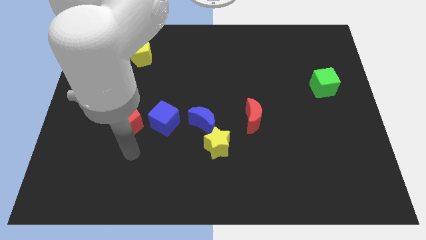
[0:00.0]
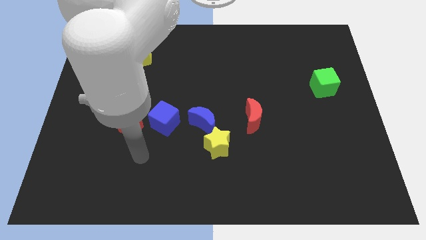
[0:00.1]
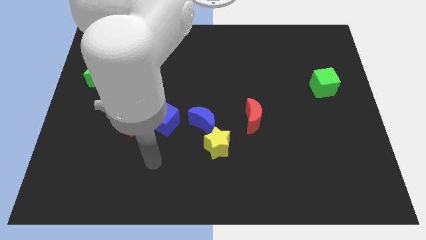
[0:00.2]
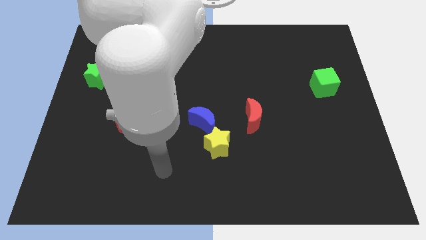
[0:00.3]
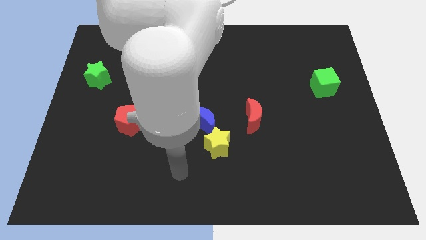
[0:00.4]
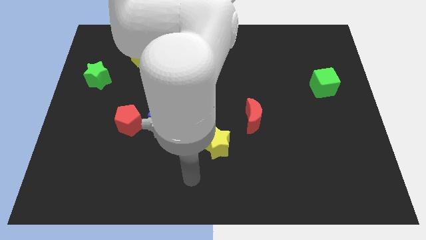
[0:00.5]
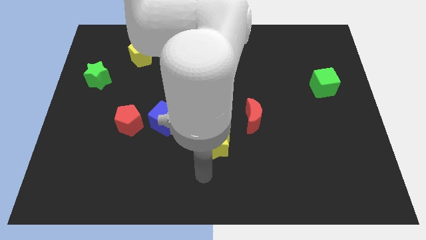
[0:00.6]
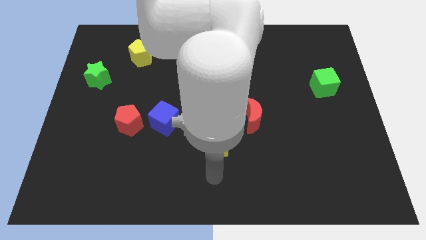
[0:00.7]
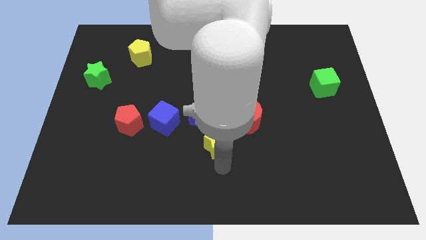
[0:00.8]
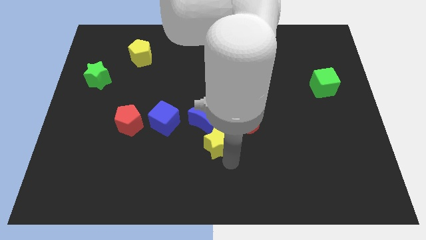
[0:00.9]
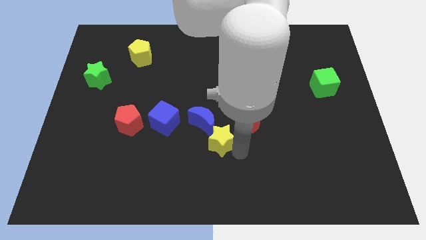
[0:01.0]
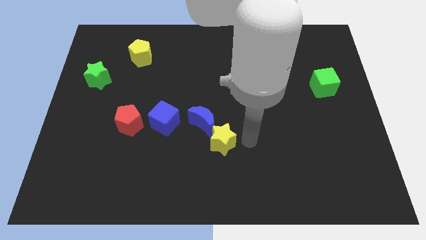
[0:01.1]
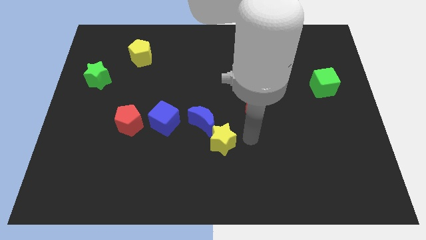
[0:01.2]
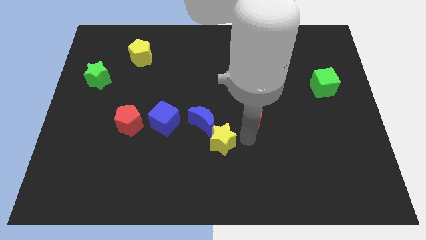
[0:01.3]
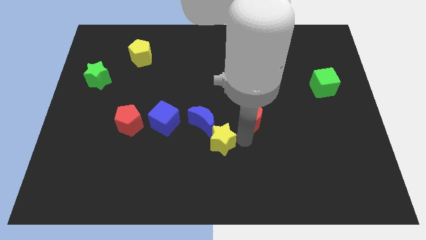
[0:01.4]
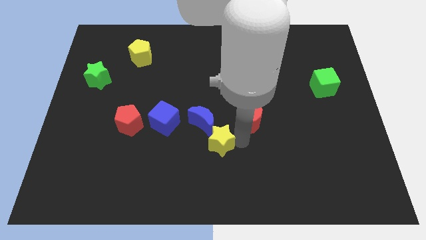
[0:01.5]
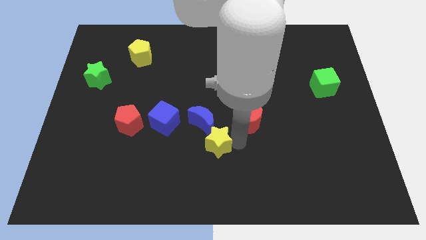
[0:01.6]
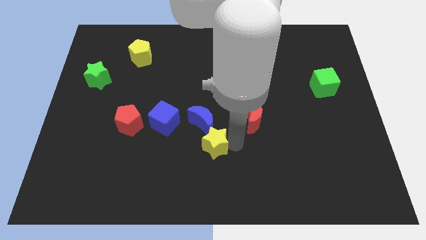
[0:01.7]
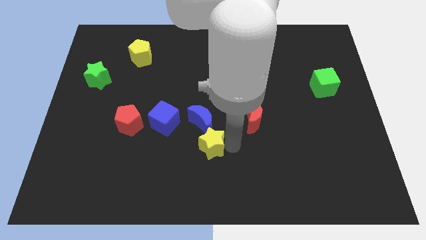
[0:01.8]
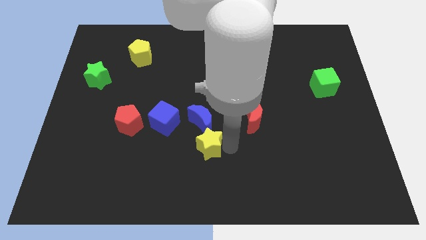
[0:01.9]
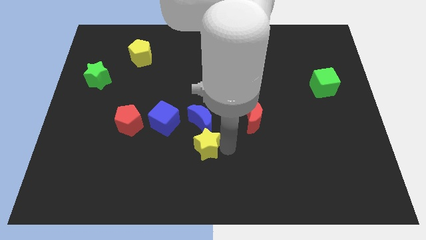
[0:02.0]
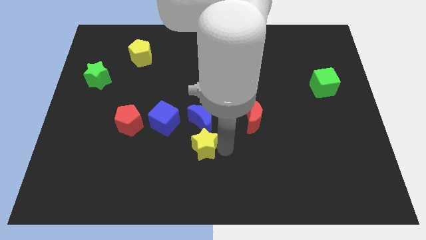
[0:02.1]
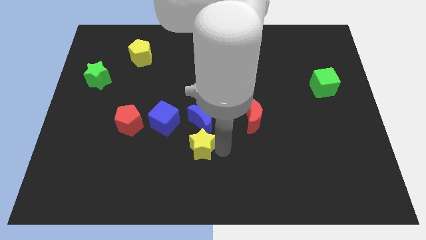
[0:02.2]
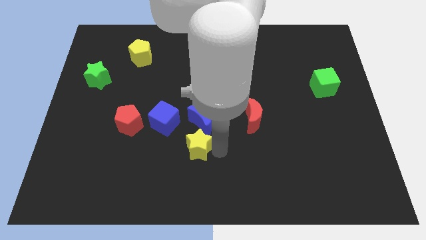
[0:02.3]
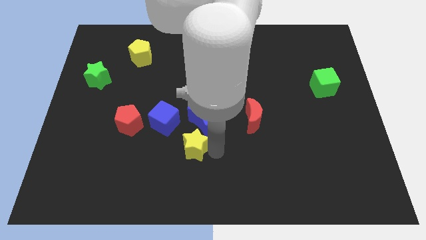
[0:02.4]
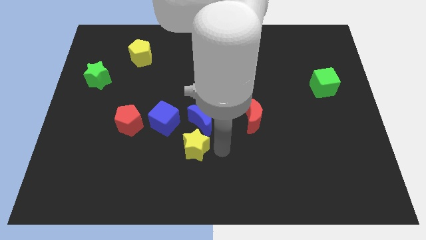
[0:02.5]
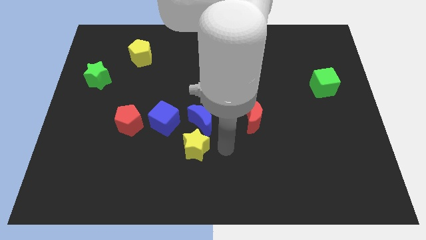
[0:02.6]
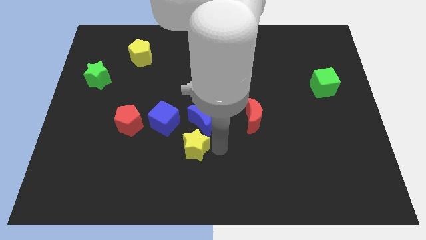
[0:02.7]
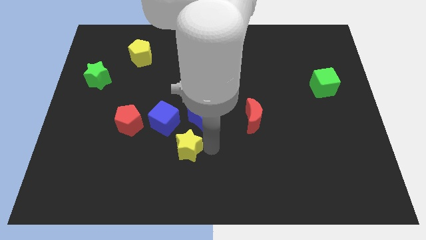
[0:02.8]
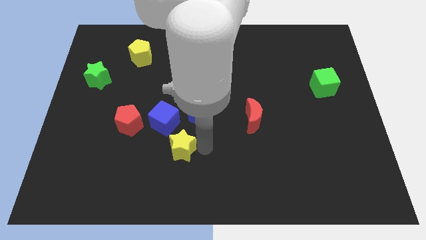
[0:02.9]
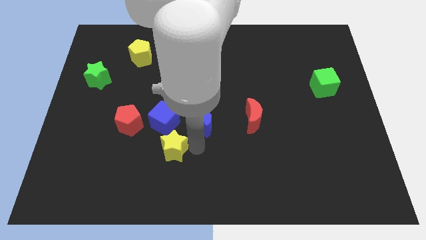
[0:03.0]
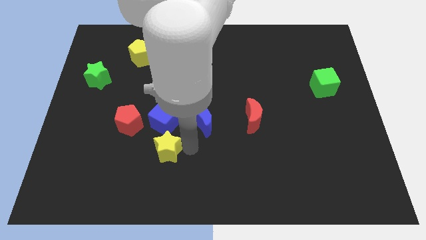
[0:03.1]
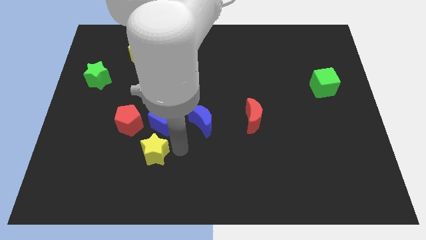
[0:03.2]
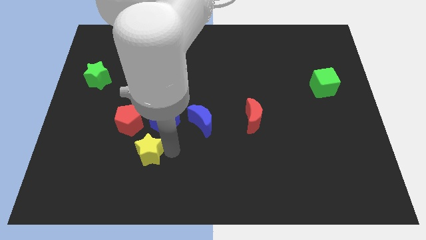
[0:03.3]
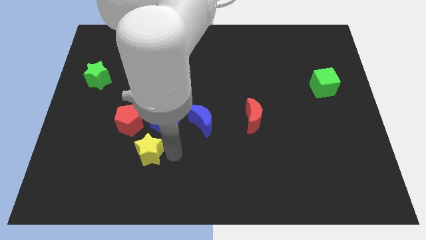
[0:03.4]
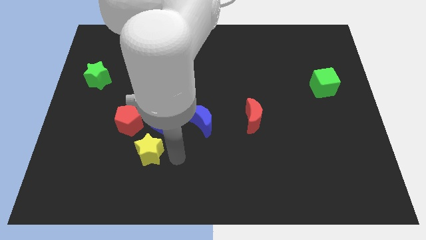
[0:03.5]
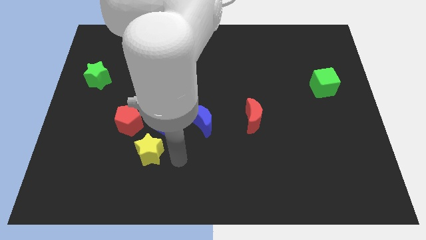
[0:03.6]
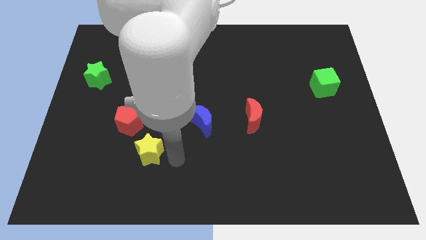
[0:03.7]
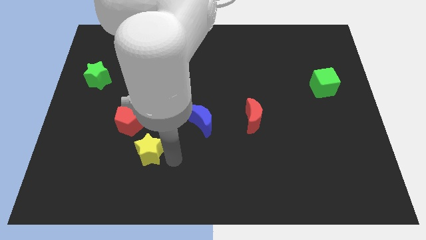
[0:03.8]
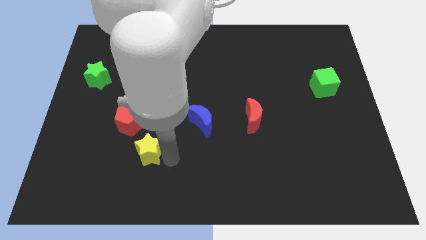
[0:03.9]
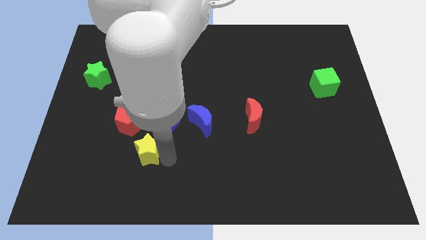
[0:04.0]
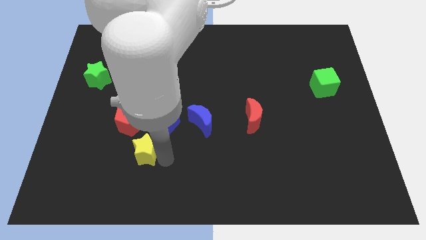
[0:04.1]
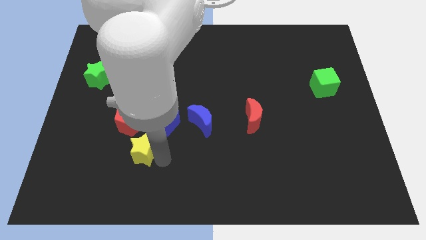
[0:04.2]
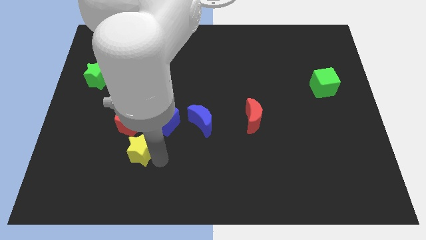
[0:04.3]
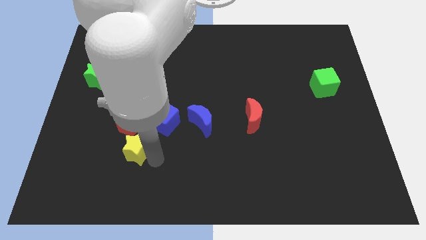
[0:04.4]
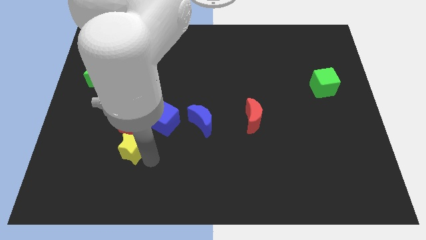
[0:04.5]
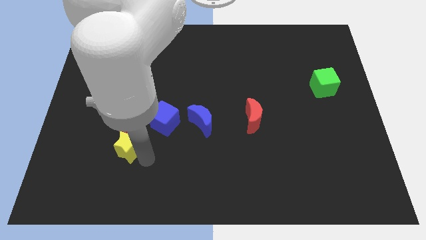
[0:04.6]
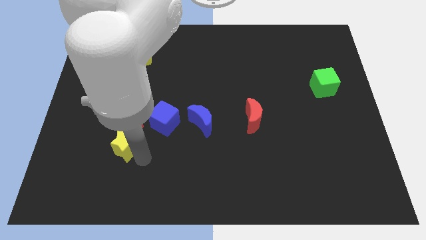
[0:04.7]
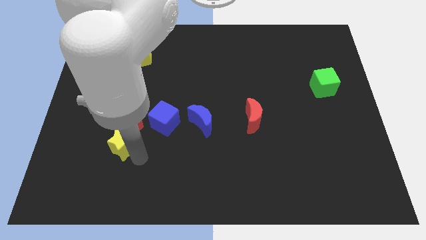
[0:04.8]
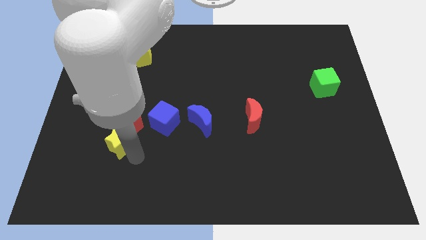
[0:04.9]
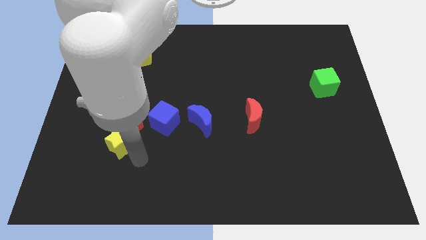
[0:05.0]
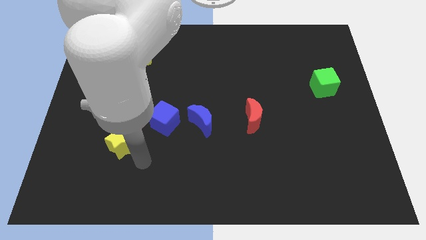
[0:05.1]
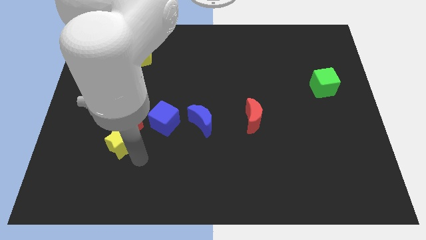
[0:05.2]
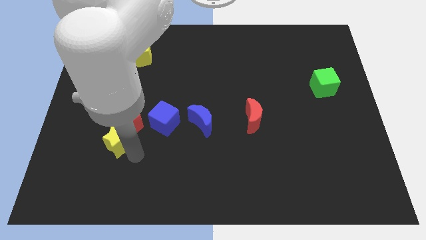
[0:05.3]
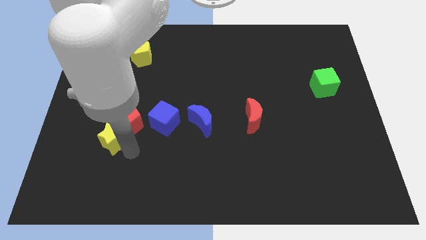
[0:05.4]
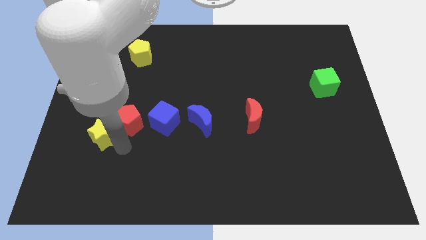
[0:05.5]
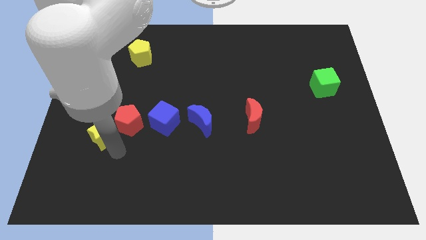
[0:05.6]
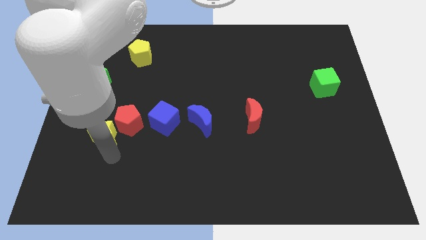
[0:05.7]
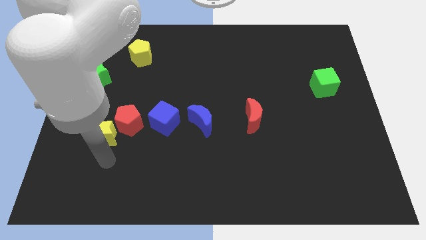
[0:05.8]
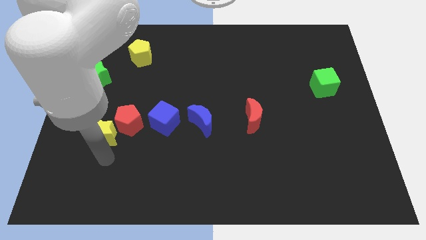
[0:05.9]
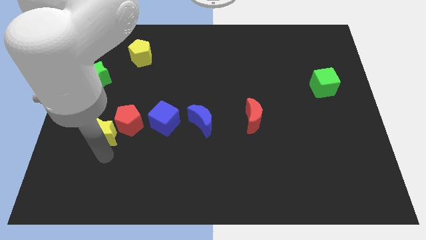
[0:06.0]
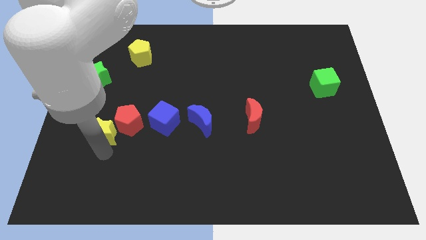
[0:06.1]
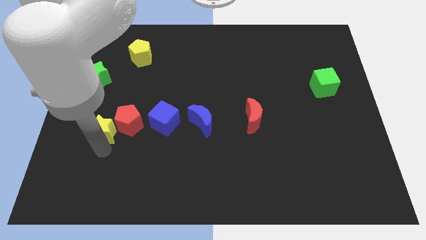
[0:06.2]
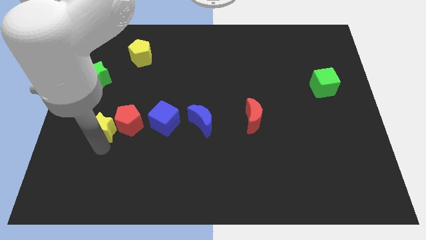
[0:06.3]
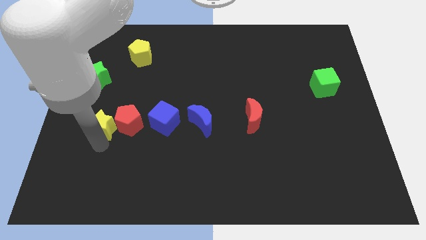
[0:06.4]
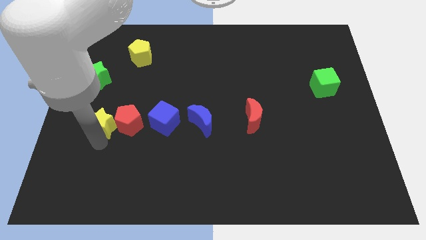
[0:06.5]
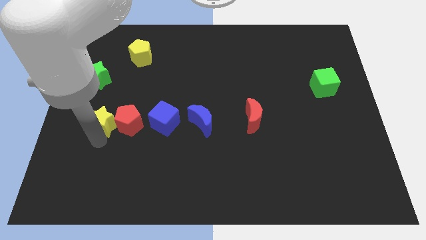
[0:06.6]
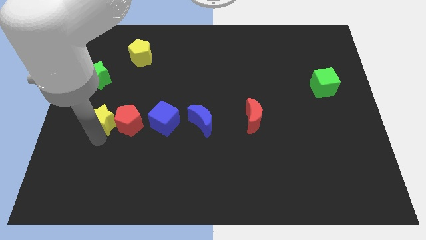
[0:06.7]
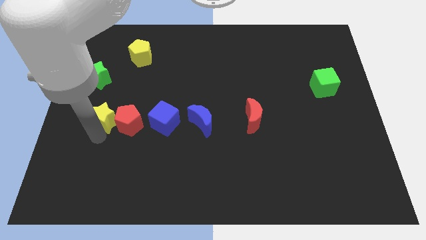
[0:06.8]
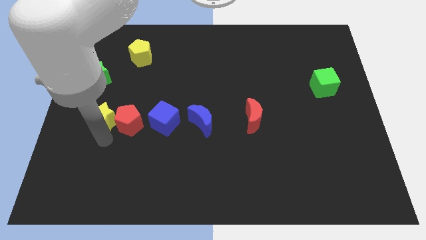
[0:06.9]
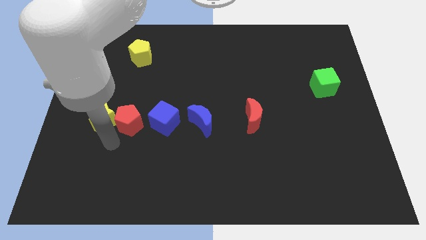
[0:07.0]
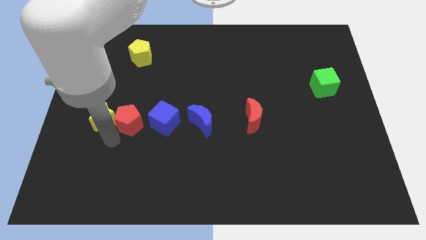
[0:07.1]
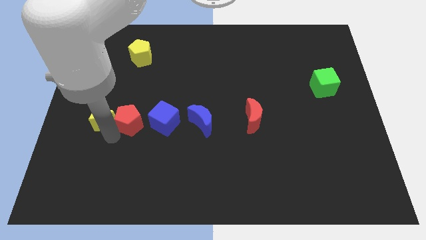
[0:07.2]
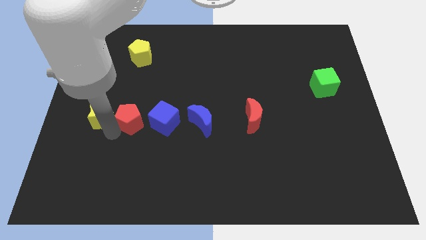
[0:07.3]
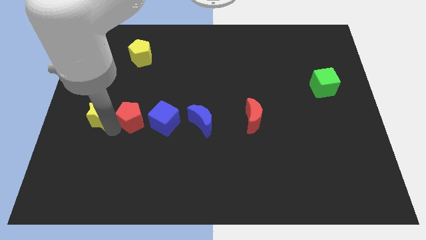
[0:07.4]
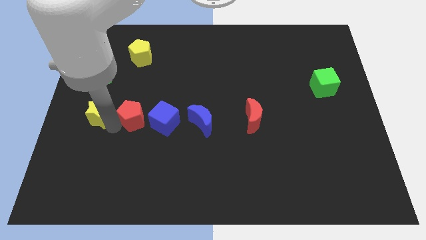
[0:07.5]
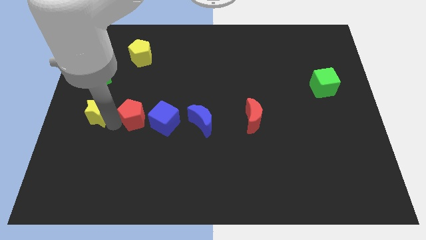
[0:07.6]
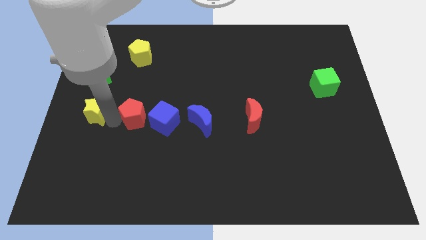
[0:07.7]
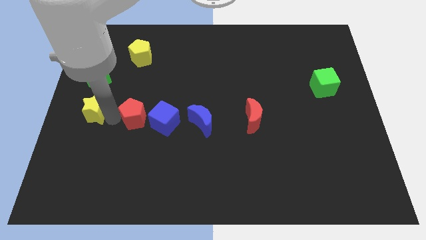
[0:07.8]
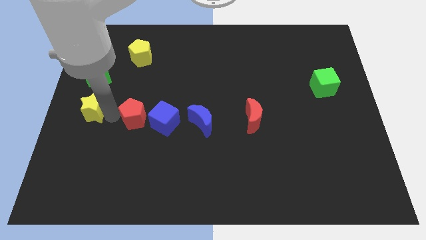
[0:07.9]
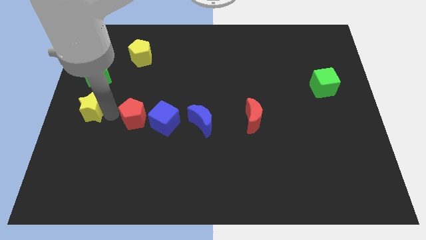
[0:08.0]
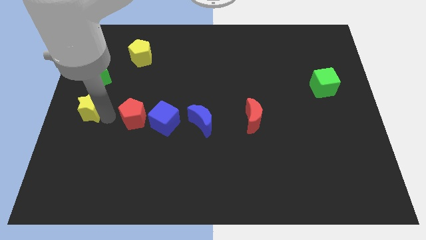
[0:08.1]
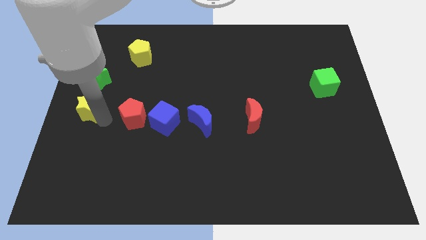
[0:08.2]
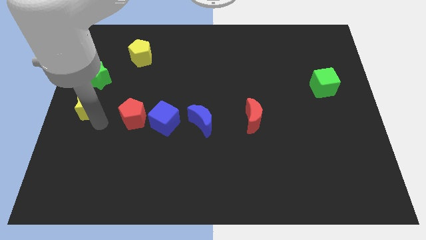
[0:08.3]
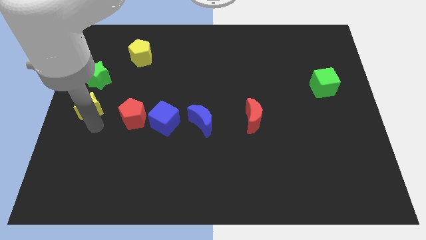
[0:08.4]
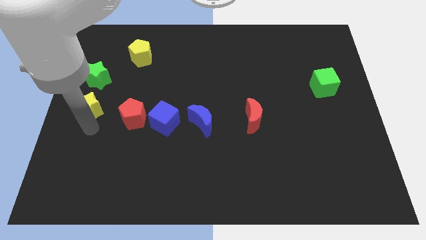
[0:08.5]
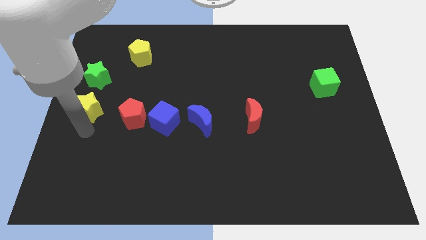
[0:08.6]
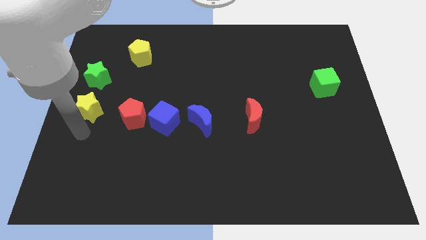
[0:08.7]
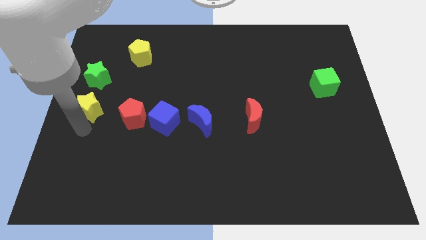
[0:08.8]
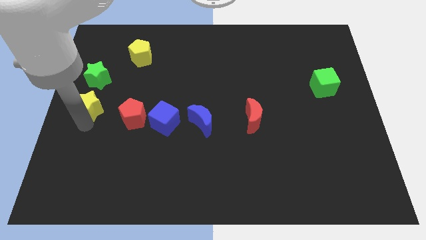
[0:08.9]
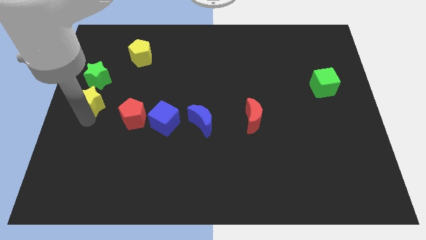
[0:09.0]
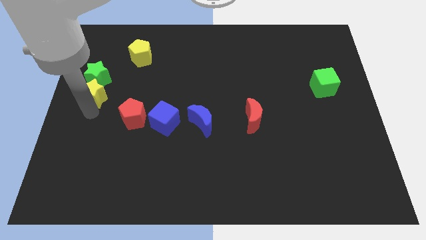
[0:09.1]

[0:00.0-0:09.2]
put the yellow star to the green star
